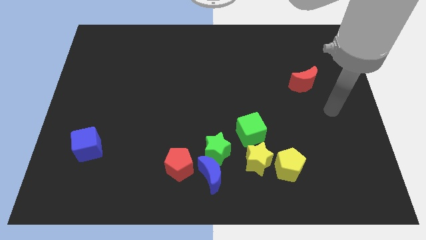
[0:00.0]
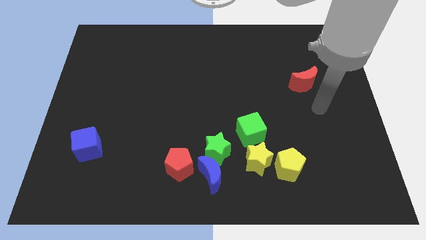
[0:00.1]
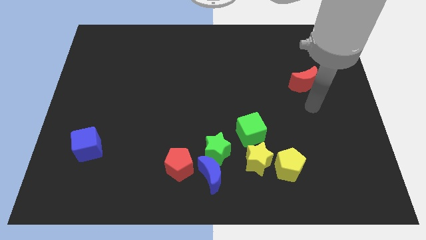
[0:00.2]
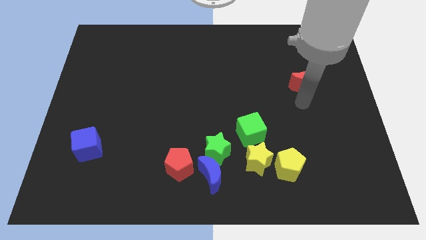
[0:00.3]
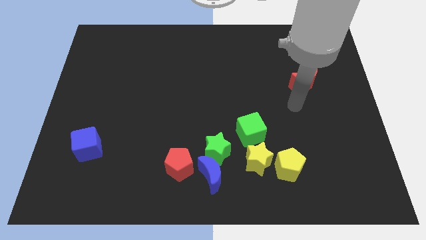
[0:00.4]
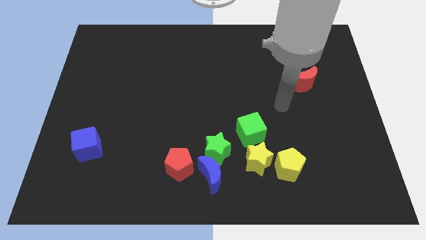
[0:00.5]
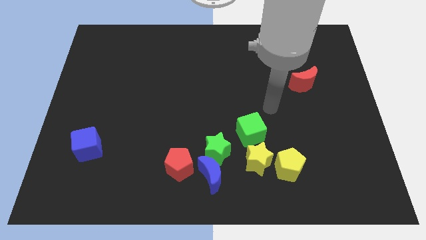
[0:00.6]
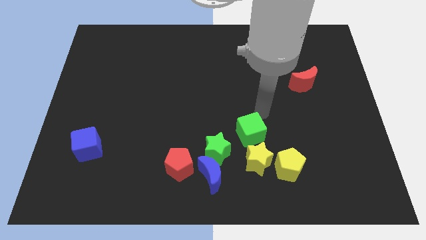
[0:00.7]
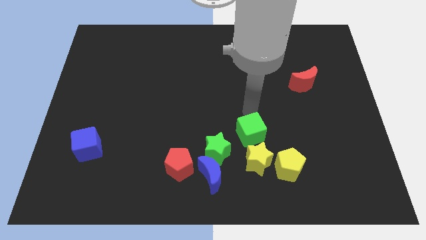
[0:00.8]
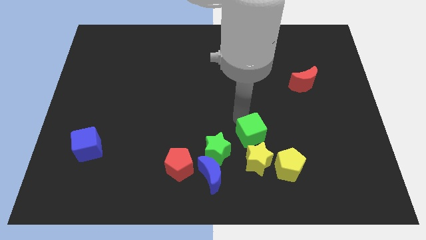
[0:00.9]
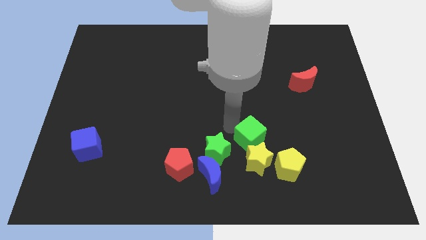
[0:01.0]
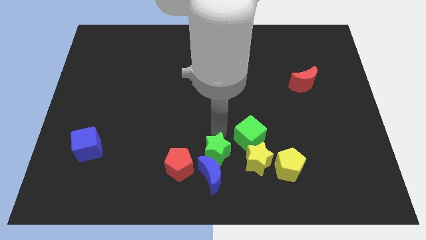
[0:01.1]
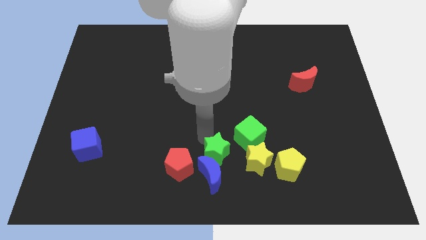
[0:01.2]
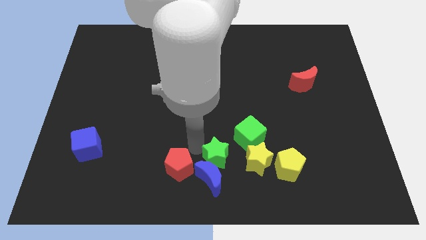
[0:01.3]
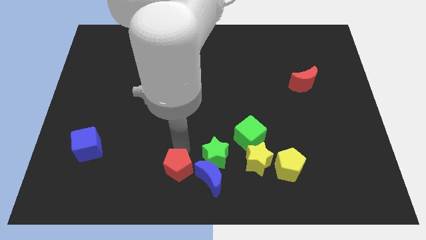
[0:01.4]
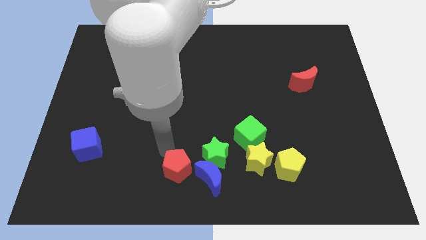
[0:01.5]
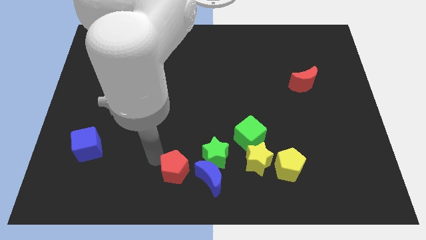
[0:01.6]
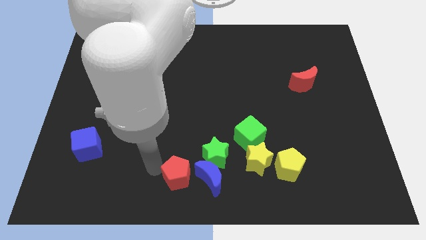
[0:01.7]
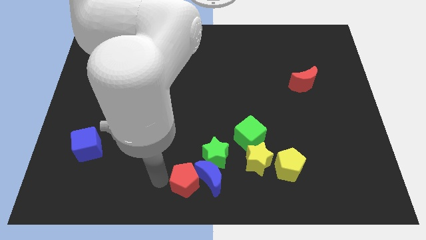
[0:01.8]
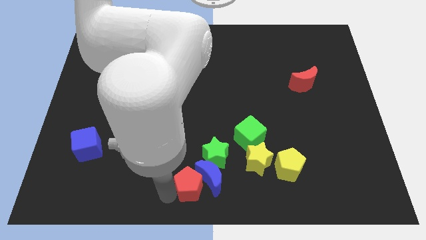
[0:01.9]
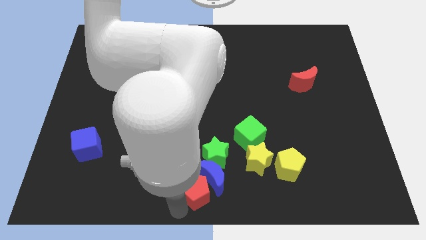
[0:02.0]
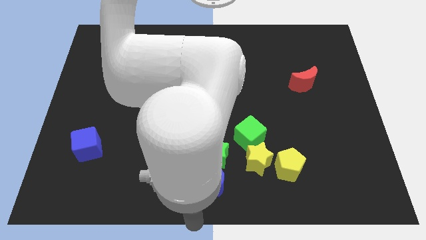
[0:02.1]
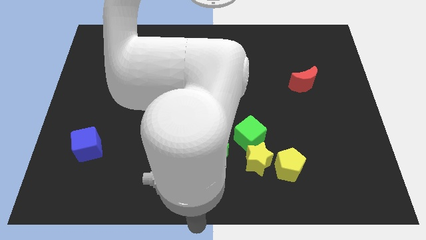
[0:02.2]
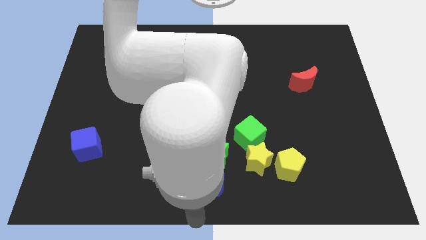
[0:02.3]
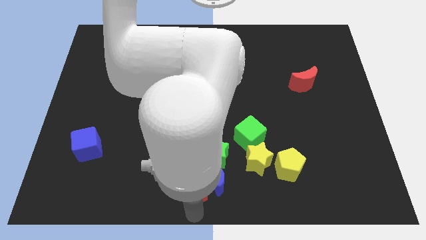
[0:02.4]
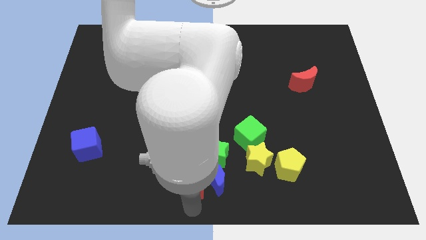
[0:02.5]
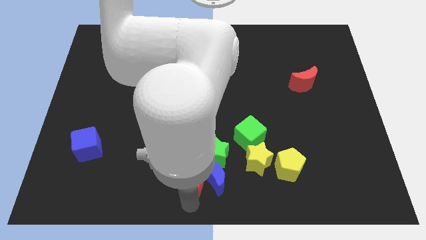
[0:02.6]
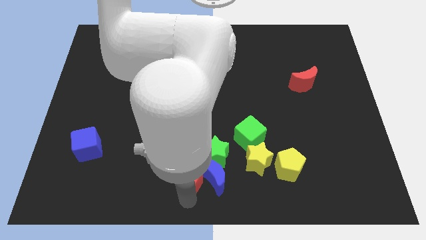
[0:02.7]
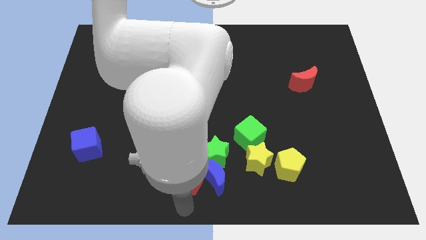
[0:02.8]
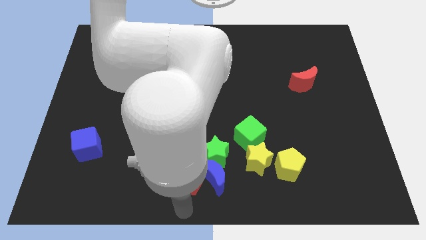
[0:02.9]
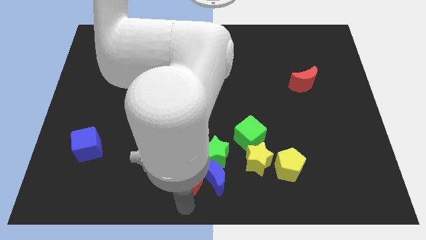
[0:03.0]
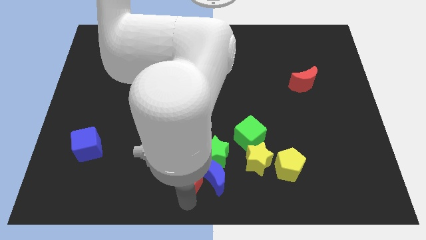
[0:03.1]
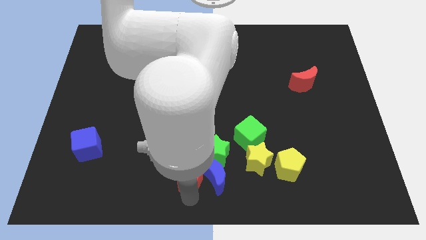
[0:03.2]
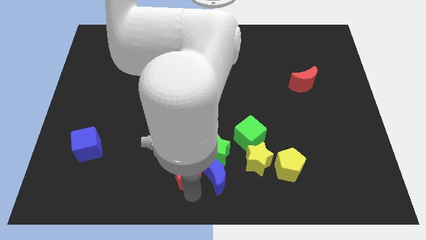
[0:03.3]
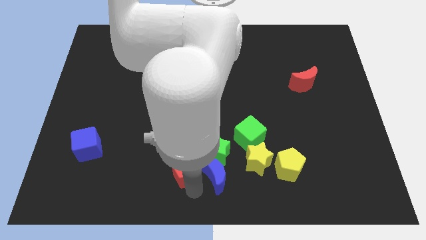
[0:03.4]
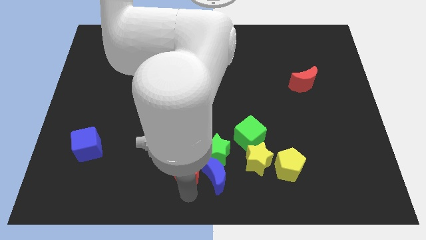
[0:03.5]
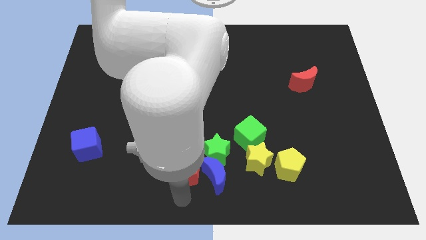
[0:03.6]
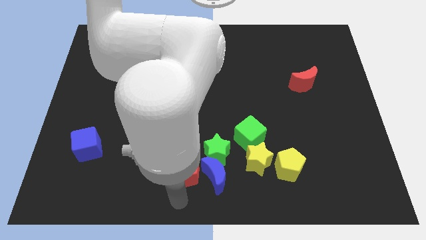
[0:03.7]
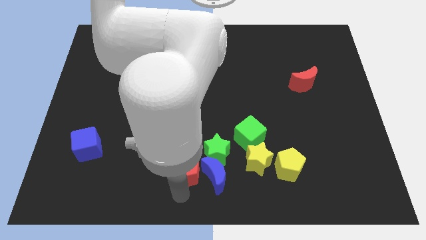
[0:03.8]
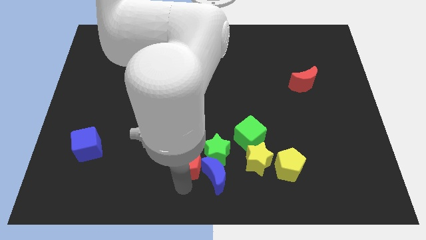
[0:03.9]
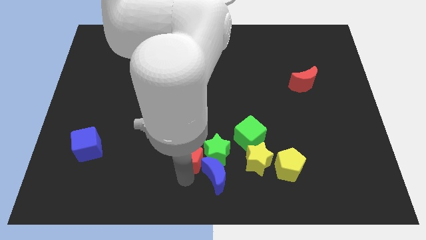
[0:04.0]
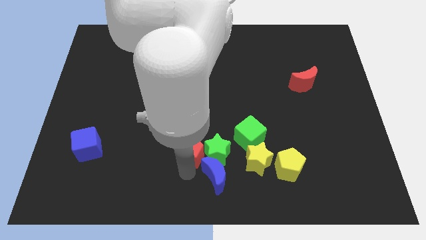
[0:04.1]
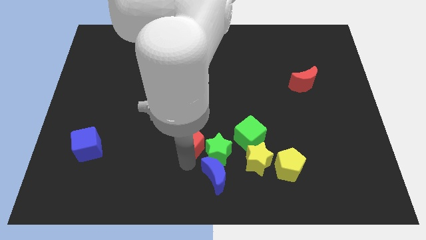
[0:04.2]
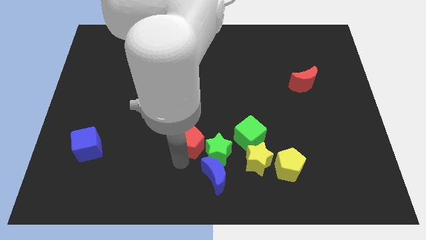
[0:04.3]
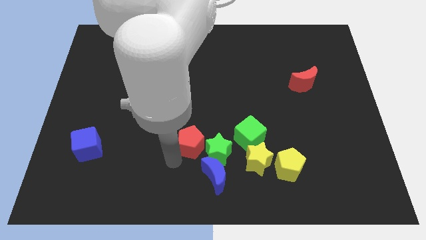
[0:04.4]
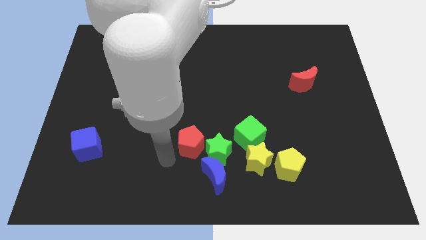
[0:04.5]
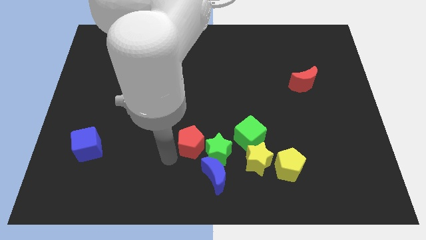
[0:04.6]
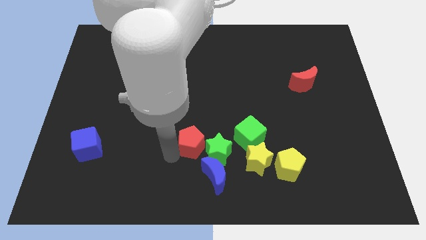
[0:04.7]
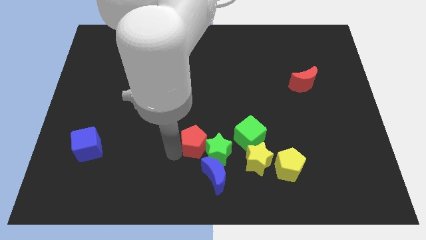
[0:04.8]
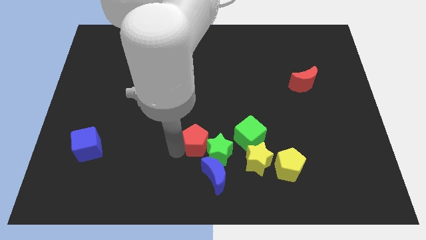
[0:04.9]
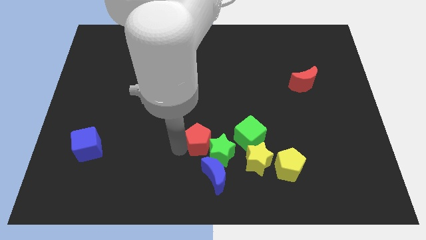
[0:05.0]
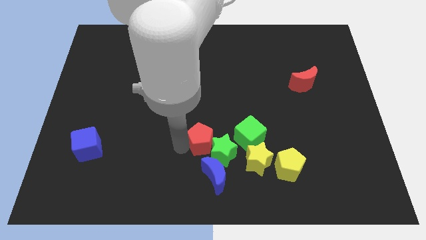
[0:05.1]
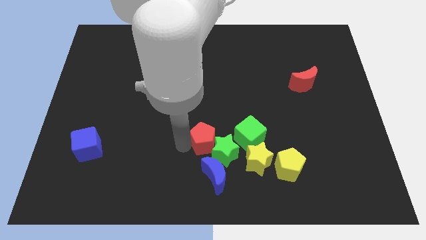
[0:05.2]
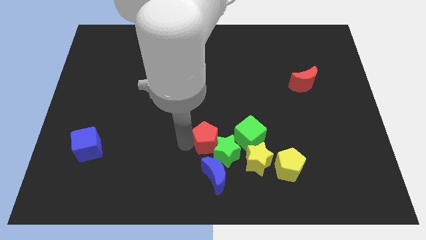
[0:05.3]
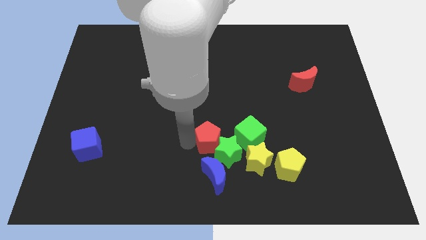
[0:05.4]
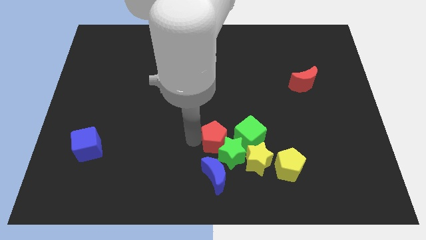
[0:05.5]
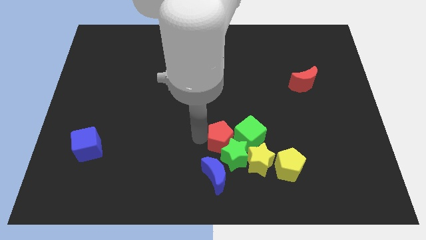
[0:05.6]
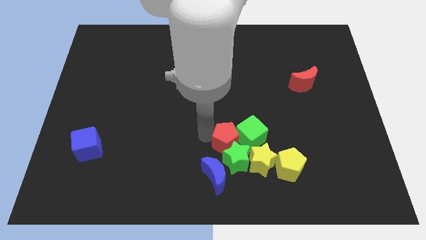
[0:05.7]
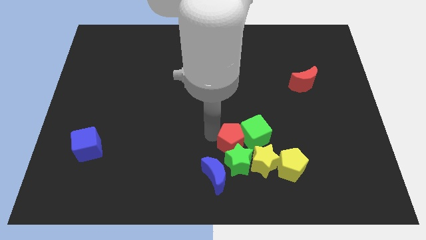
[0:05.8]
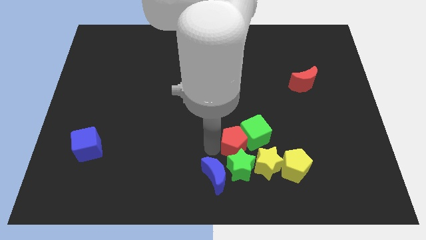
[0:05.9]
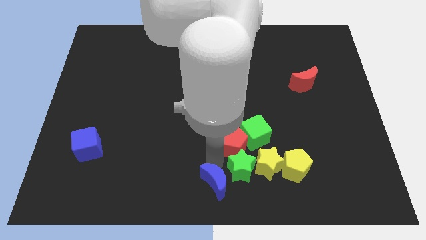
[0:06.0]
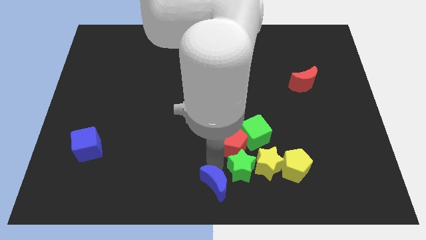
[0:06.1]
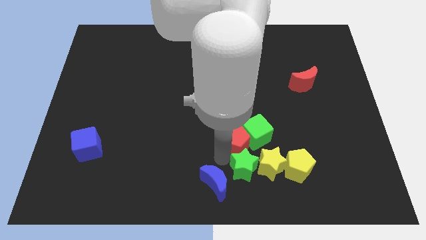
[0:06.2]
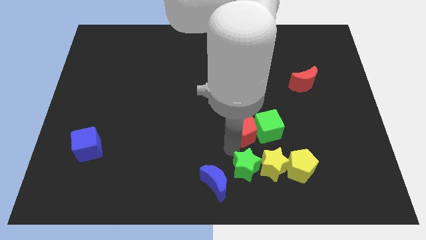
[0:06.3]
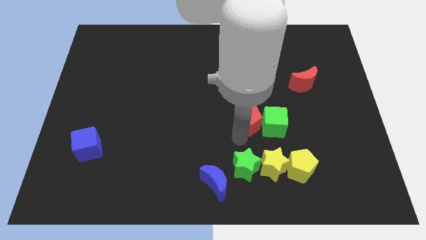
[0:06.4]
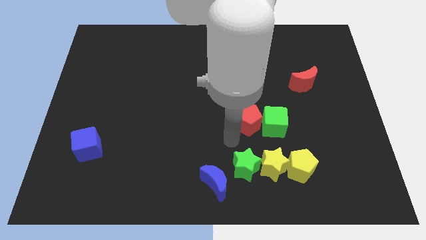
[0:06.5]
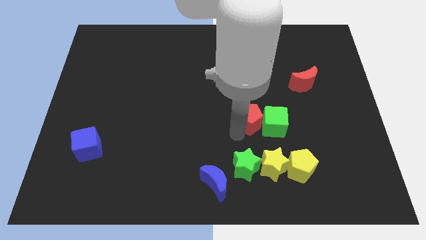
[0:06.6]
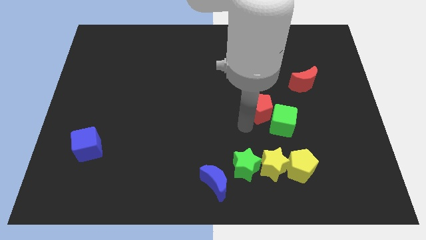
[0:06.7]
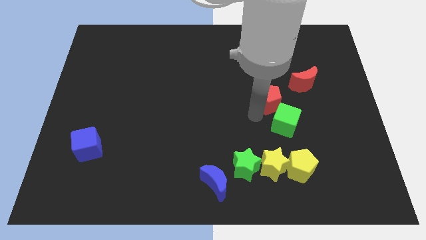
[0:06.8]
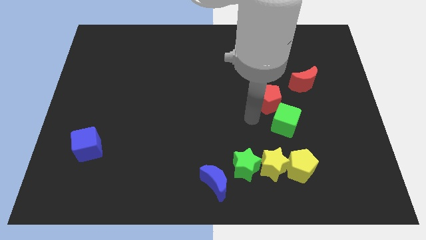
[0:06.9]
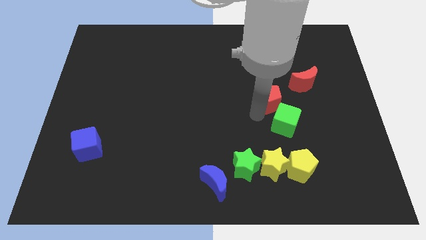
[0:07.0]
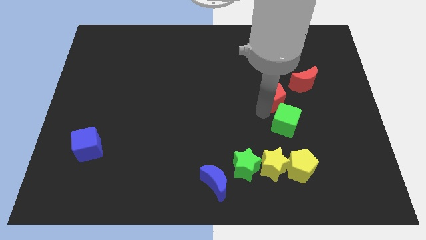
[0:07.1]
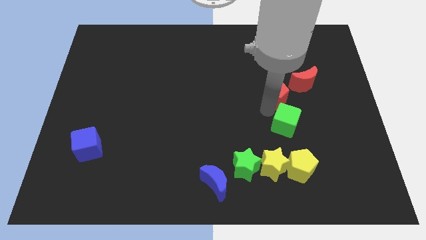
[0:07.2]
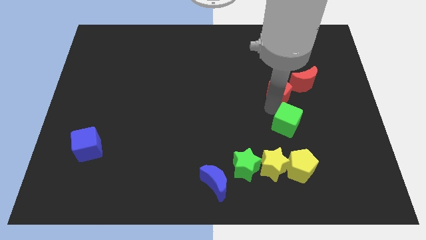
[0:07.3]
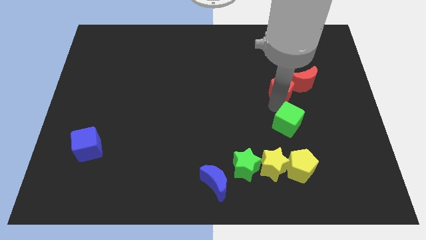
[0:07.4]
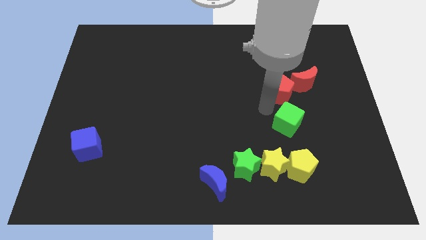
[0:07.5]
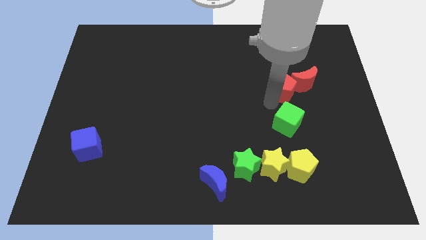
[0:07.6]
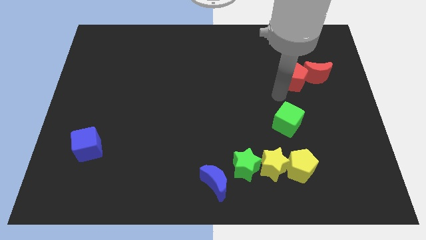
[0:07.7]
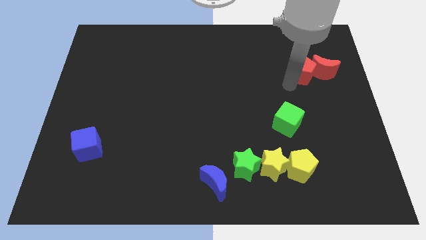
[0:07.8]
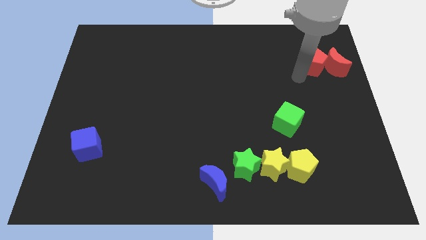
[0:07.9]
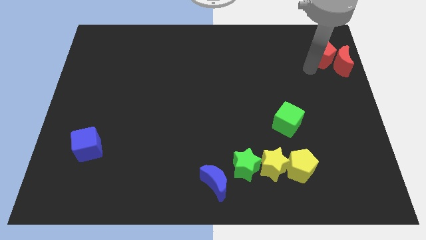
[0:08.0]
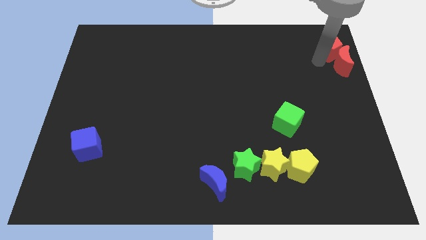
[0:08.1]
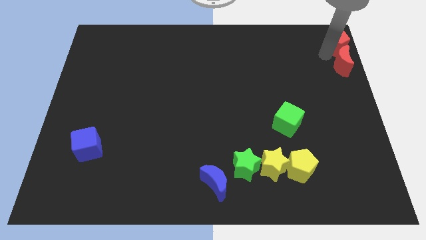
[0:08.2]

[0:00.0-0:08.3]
put the red pentagon to the upper right corner
